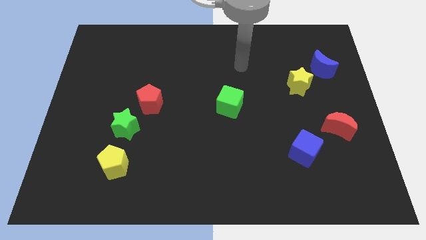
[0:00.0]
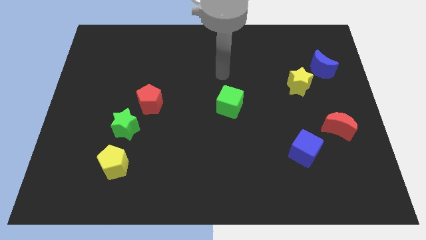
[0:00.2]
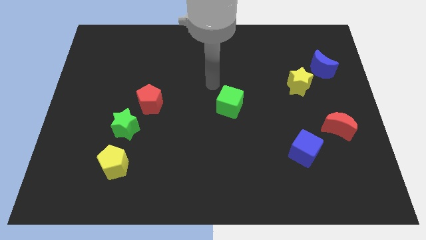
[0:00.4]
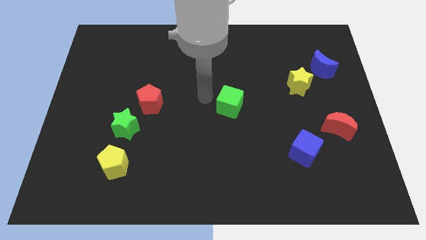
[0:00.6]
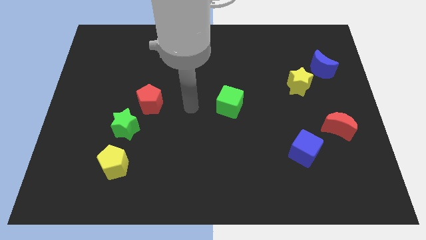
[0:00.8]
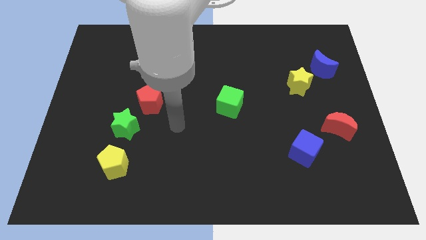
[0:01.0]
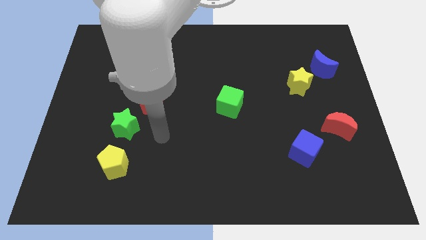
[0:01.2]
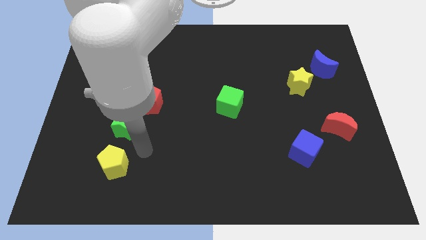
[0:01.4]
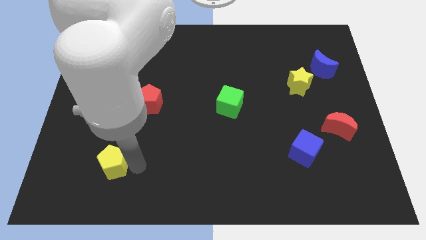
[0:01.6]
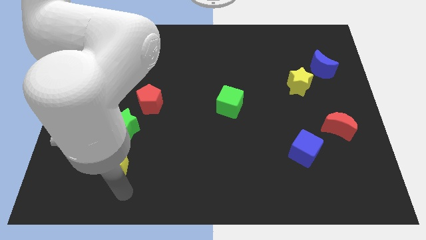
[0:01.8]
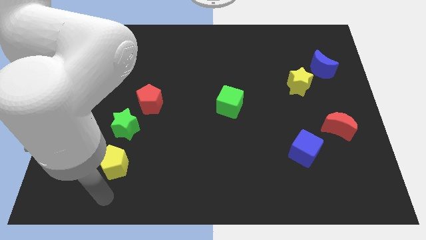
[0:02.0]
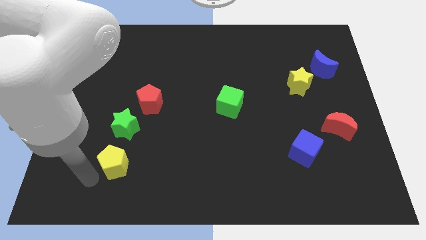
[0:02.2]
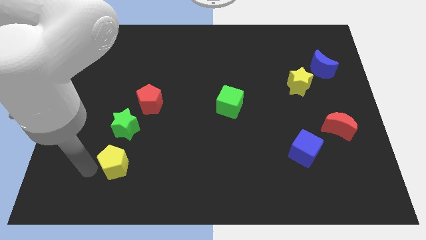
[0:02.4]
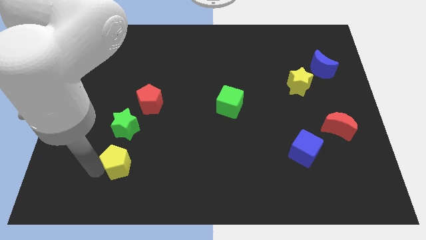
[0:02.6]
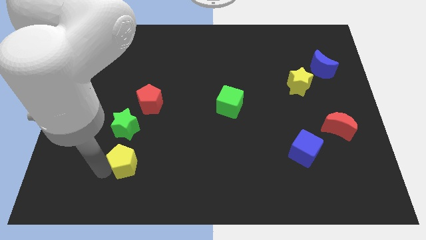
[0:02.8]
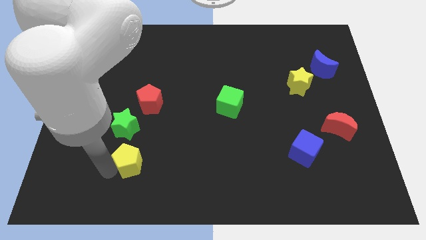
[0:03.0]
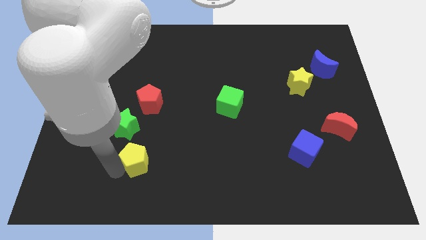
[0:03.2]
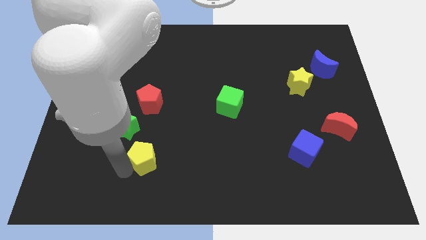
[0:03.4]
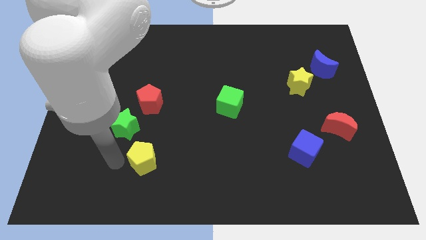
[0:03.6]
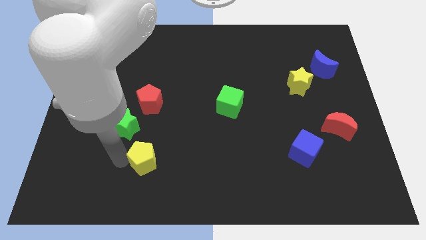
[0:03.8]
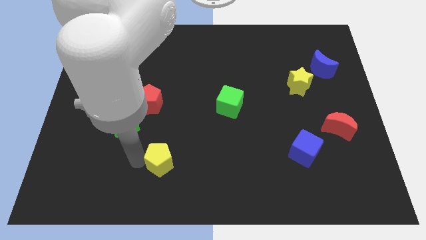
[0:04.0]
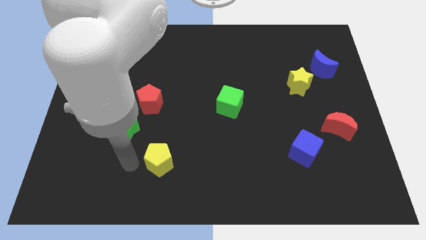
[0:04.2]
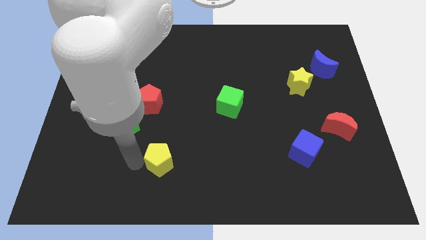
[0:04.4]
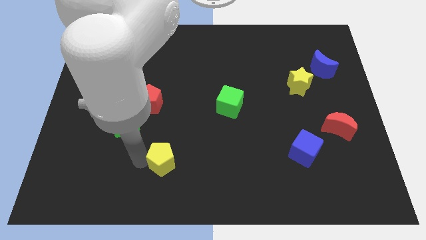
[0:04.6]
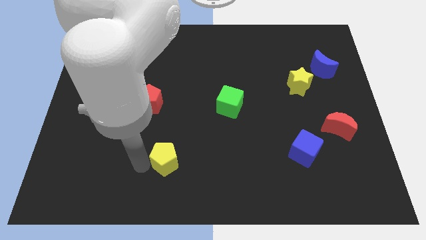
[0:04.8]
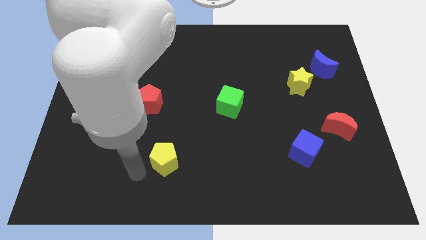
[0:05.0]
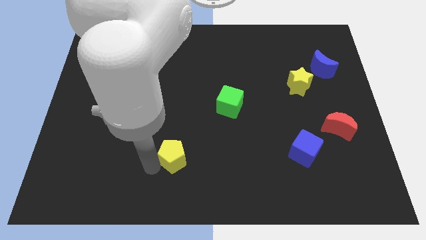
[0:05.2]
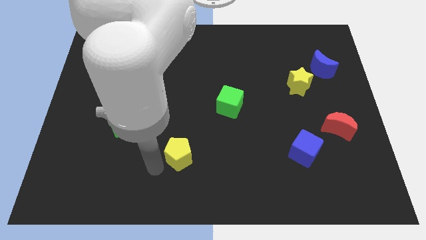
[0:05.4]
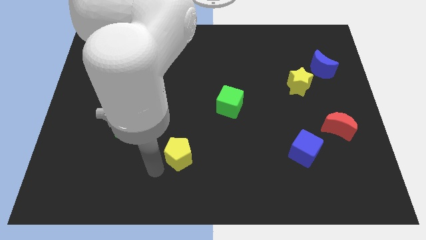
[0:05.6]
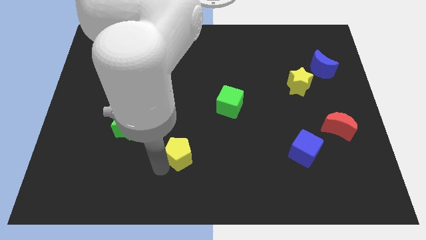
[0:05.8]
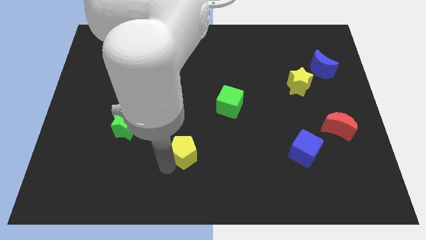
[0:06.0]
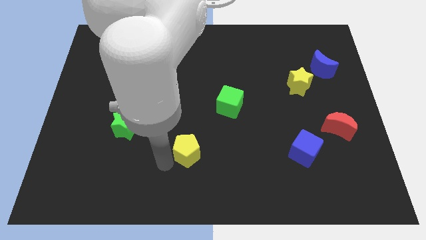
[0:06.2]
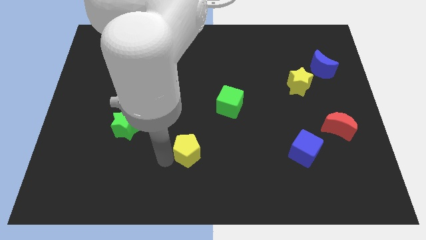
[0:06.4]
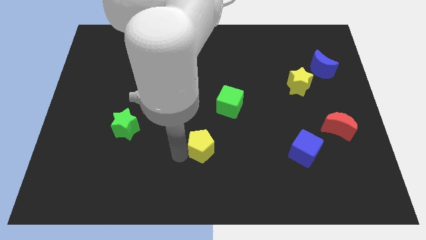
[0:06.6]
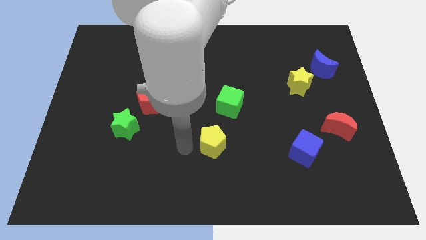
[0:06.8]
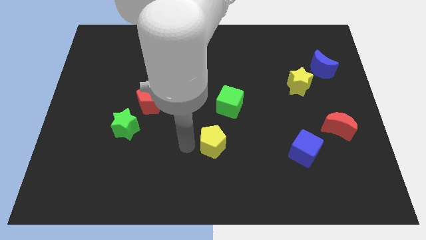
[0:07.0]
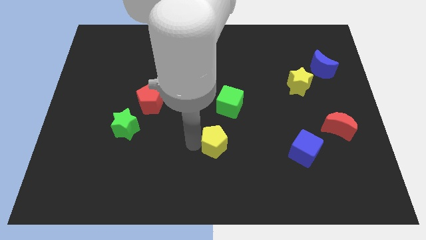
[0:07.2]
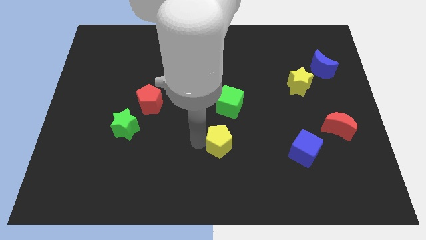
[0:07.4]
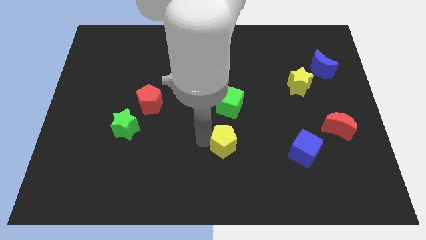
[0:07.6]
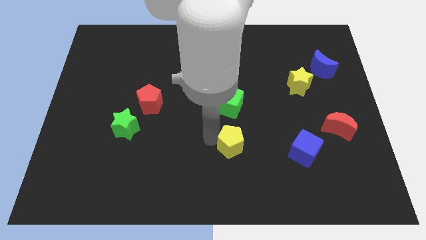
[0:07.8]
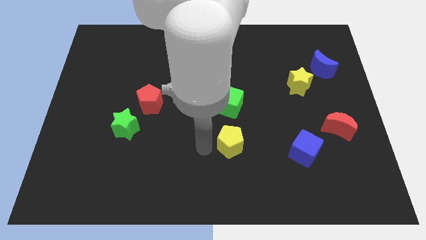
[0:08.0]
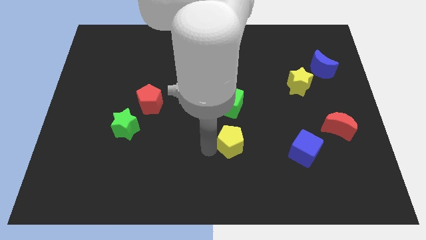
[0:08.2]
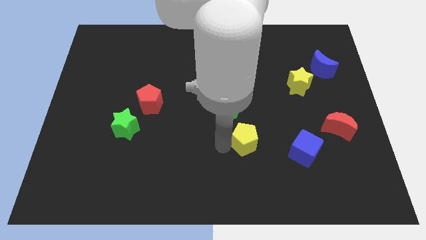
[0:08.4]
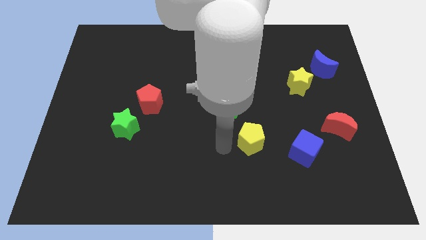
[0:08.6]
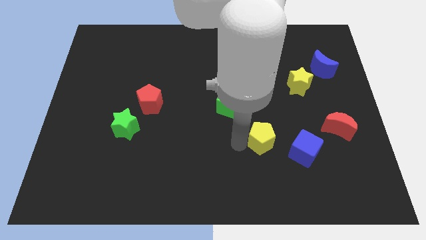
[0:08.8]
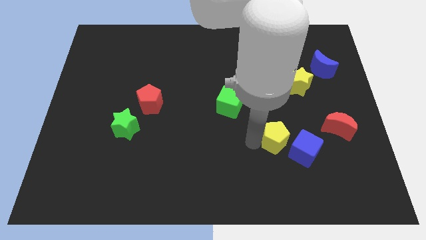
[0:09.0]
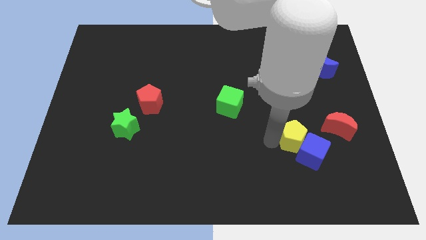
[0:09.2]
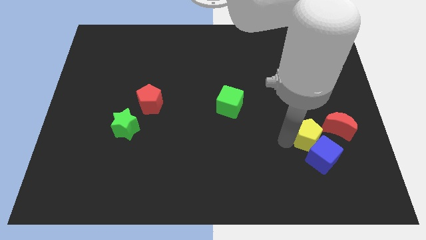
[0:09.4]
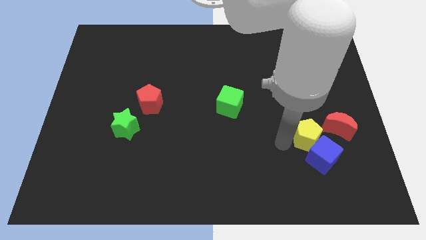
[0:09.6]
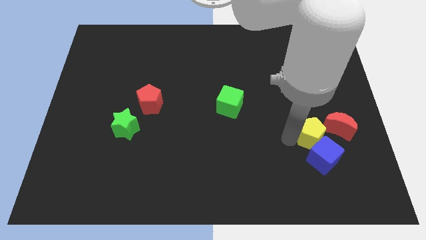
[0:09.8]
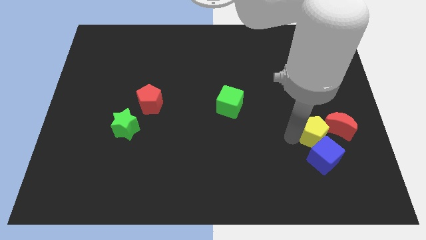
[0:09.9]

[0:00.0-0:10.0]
slide the yellow pentagon close to the red moon

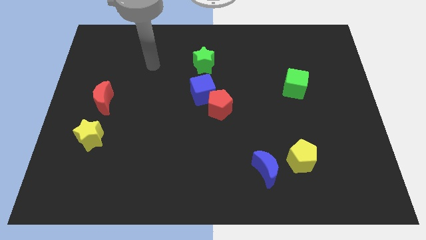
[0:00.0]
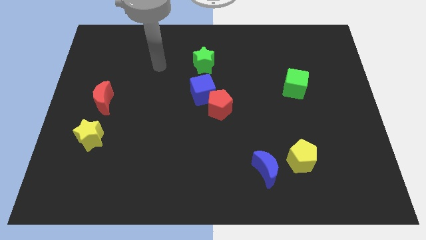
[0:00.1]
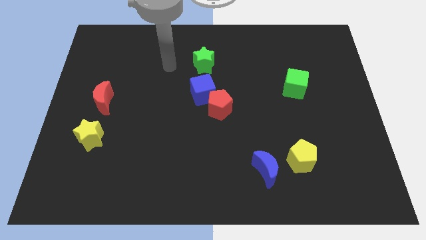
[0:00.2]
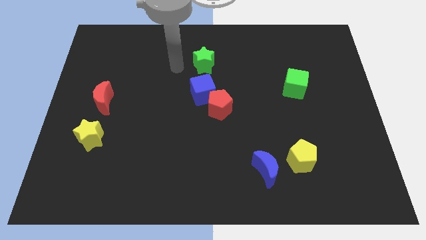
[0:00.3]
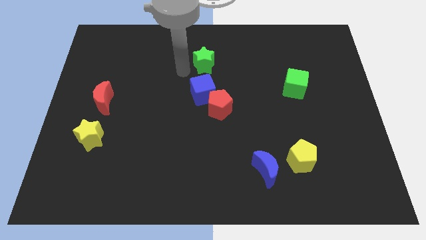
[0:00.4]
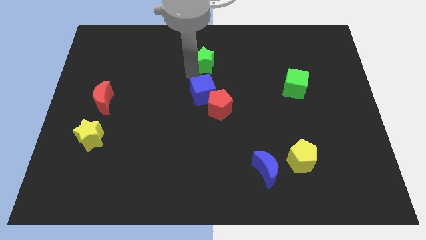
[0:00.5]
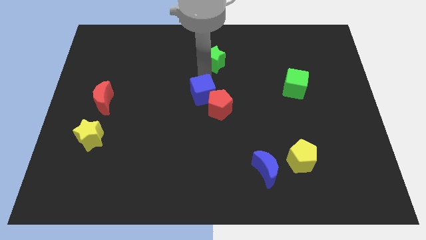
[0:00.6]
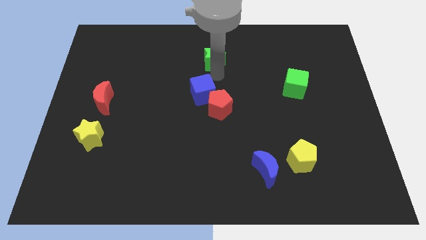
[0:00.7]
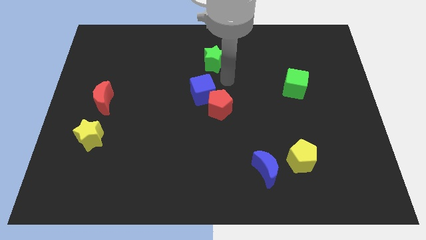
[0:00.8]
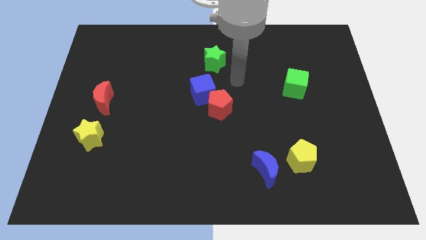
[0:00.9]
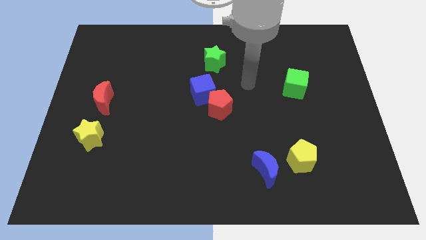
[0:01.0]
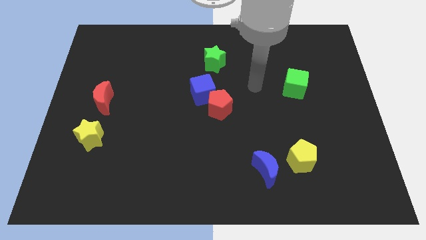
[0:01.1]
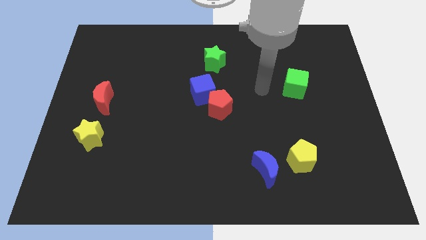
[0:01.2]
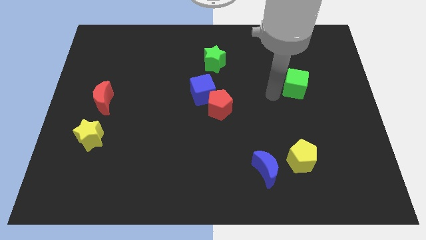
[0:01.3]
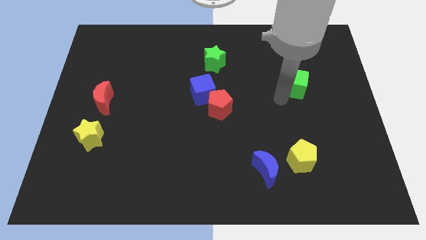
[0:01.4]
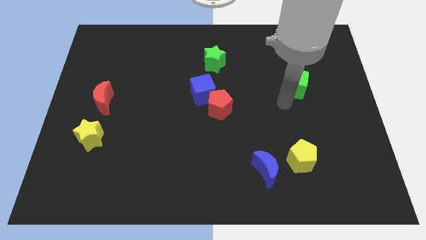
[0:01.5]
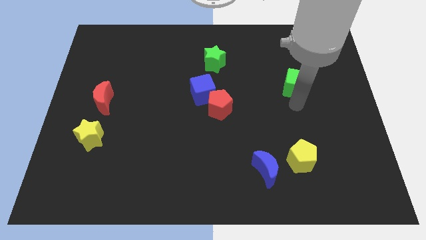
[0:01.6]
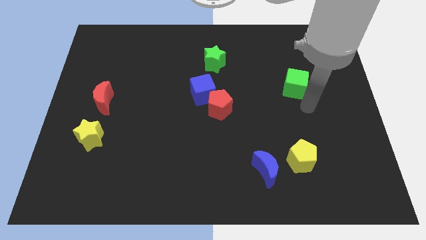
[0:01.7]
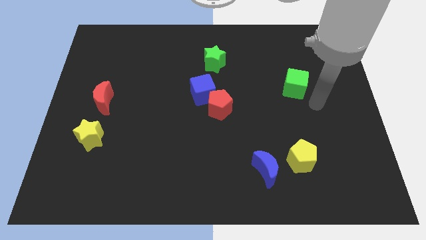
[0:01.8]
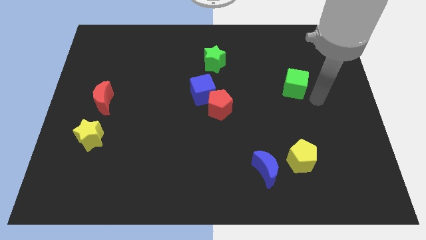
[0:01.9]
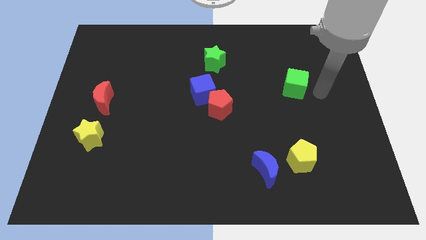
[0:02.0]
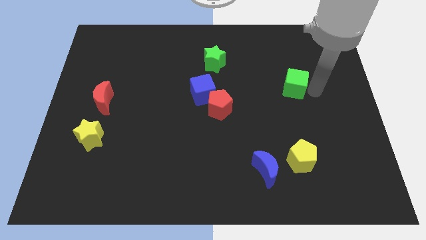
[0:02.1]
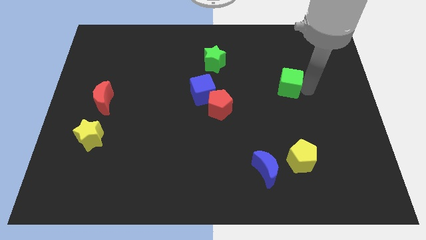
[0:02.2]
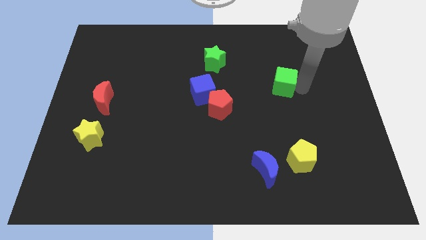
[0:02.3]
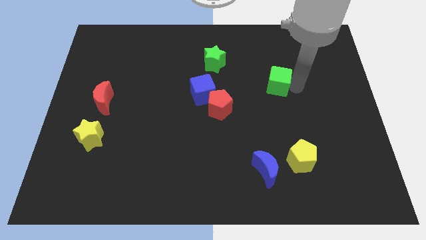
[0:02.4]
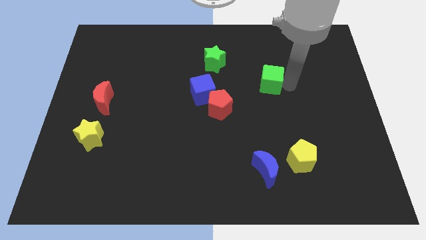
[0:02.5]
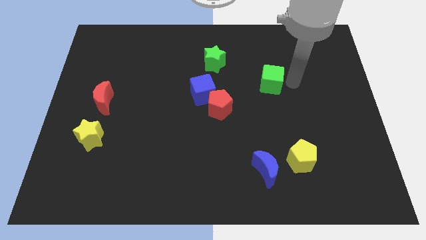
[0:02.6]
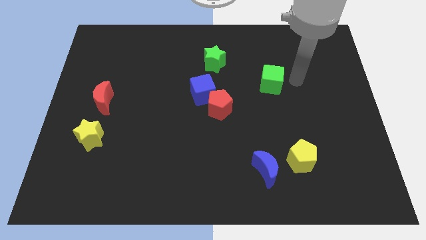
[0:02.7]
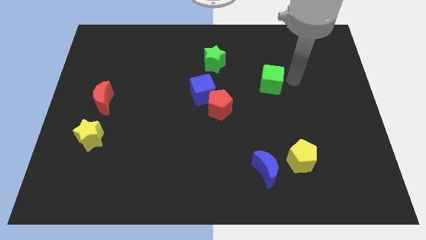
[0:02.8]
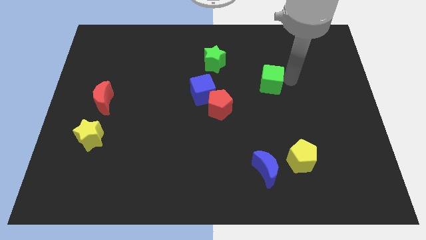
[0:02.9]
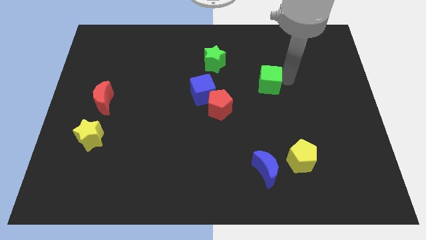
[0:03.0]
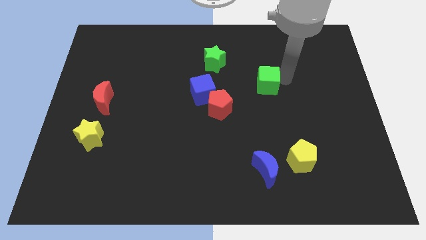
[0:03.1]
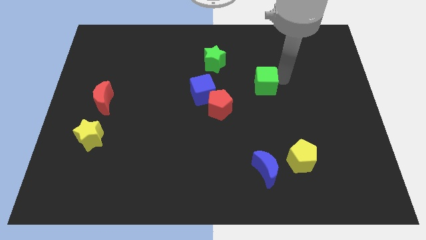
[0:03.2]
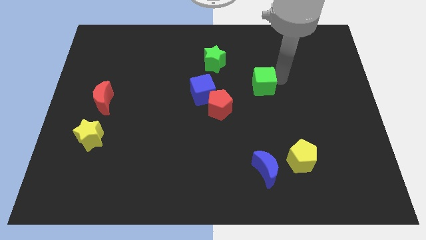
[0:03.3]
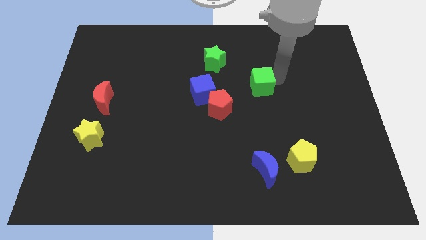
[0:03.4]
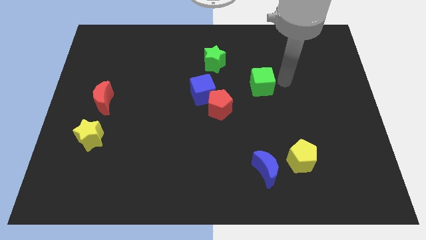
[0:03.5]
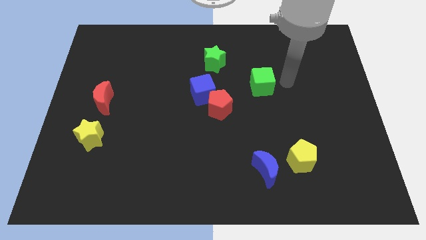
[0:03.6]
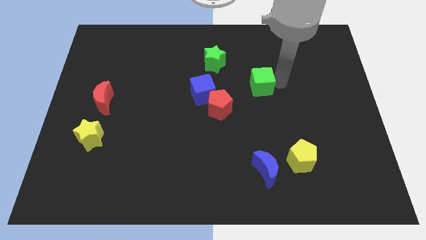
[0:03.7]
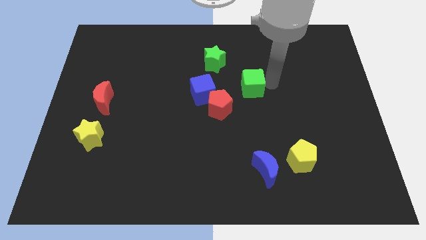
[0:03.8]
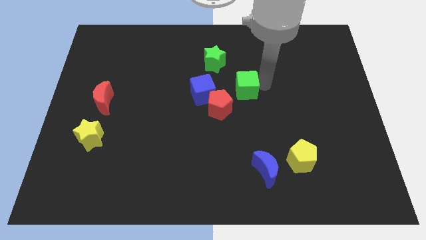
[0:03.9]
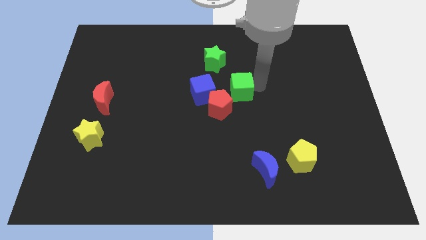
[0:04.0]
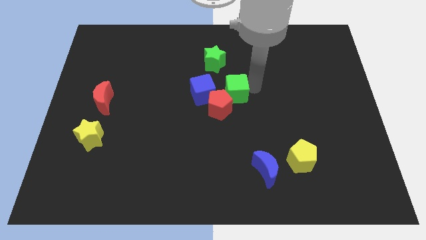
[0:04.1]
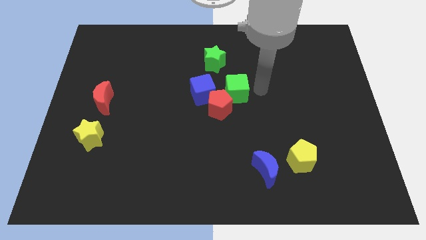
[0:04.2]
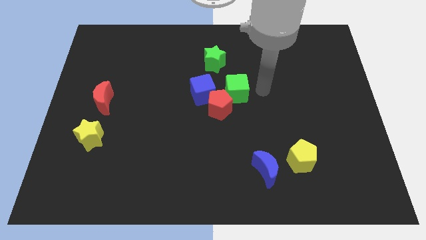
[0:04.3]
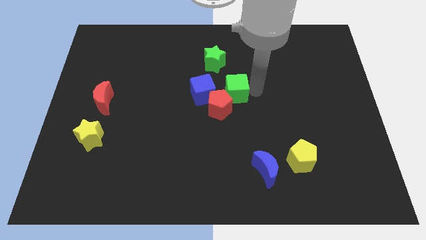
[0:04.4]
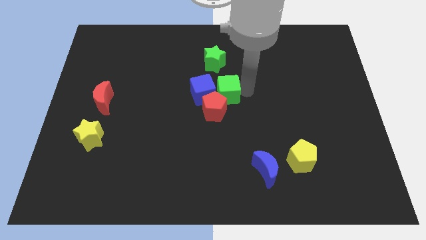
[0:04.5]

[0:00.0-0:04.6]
slide the green cube to the blue cube
